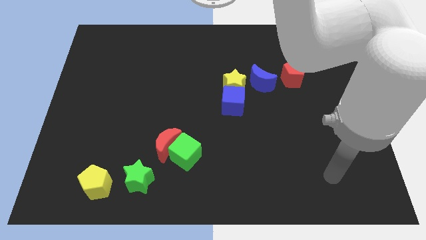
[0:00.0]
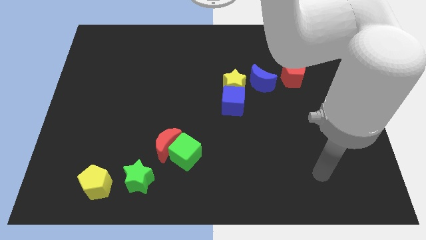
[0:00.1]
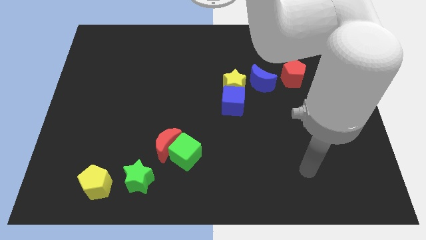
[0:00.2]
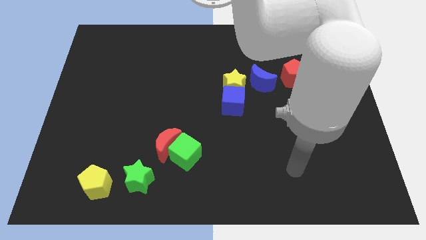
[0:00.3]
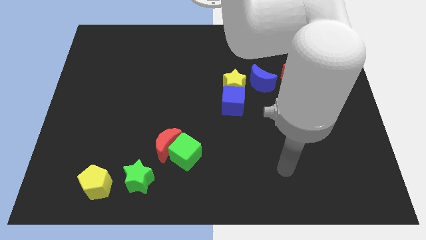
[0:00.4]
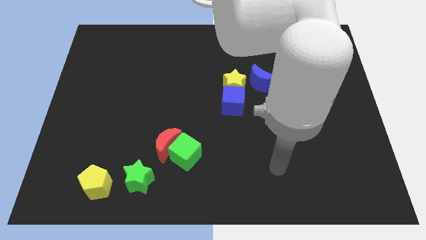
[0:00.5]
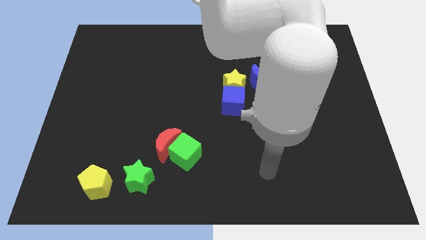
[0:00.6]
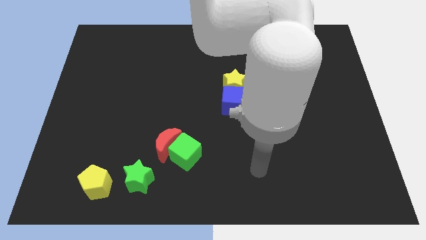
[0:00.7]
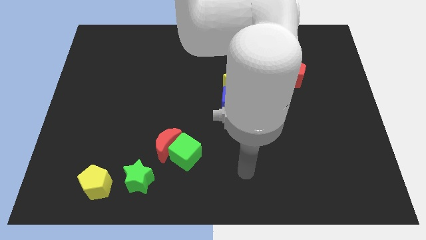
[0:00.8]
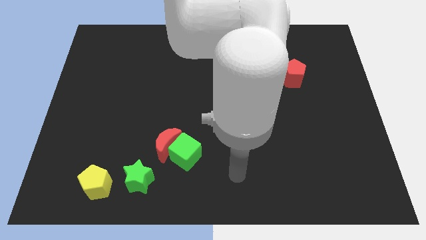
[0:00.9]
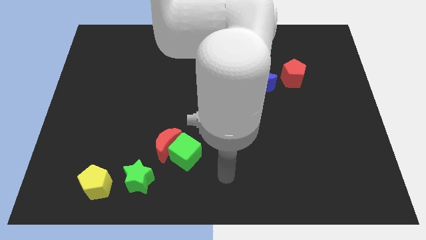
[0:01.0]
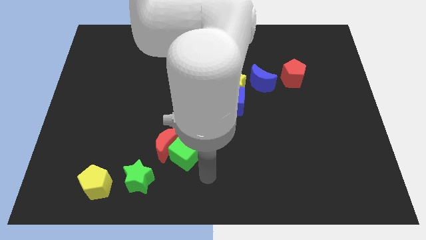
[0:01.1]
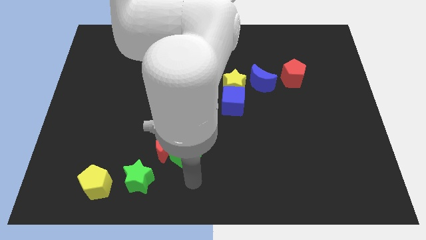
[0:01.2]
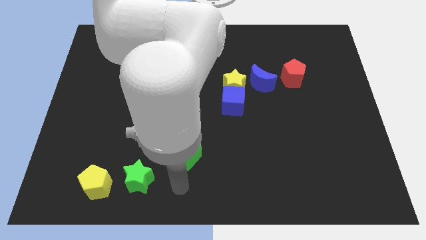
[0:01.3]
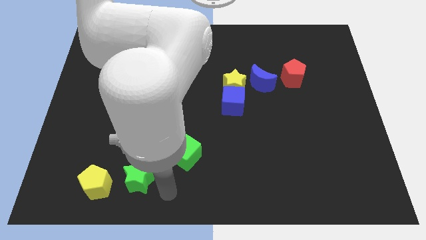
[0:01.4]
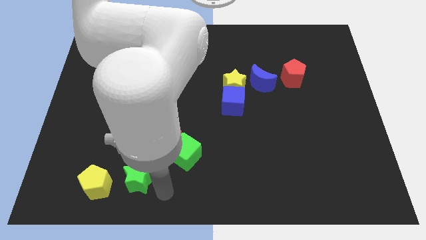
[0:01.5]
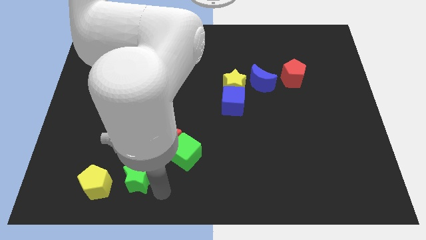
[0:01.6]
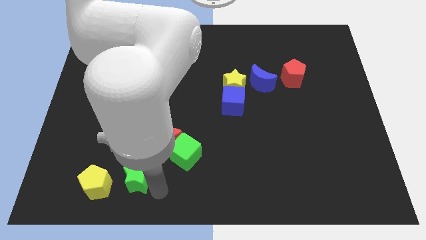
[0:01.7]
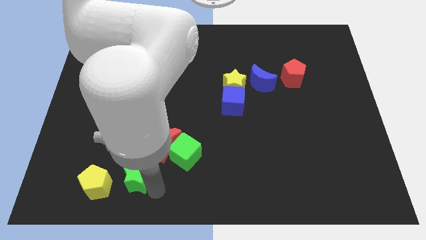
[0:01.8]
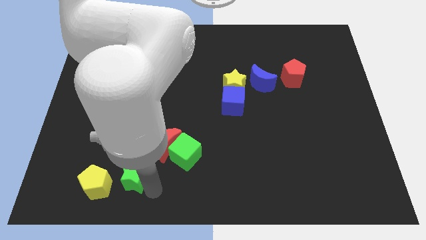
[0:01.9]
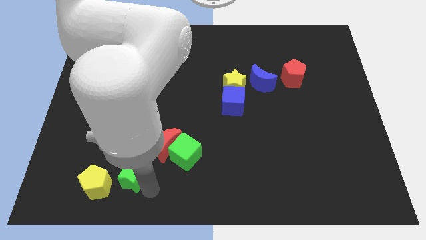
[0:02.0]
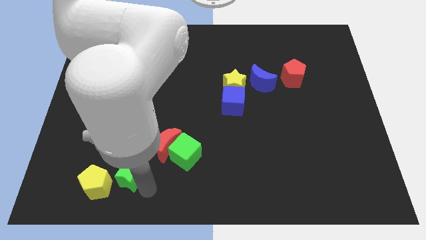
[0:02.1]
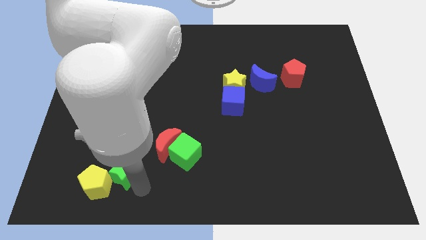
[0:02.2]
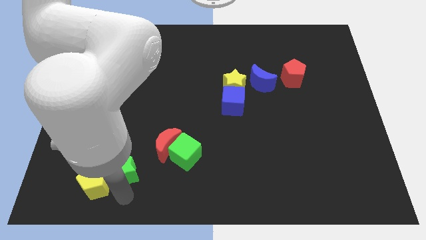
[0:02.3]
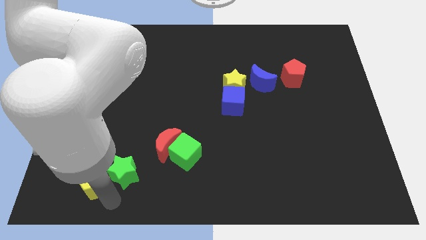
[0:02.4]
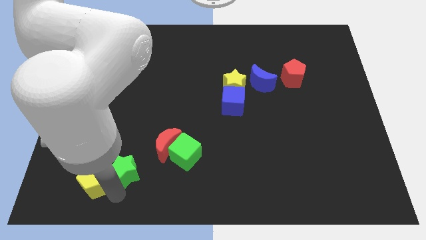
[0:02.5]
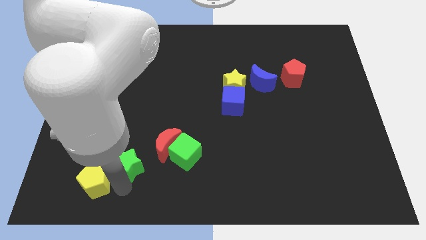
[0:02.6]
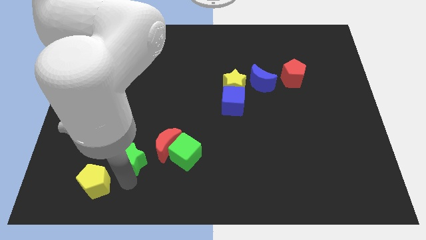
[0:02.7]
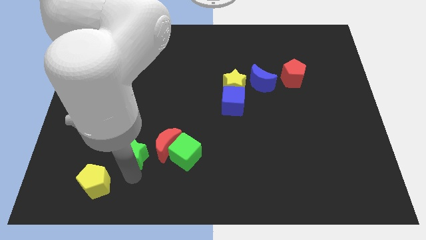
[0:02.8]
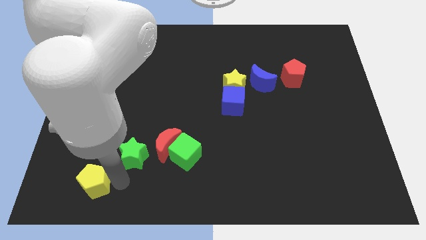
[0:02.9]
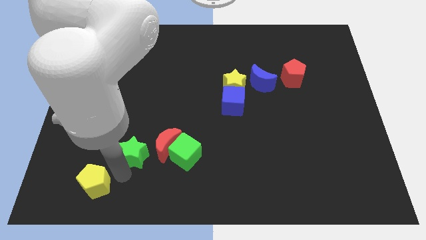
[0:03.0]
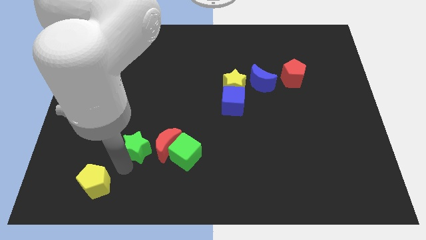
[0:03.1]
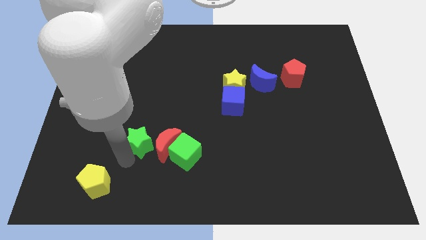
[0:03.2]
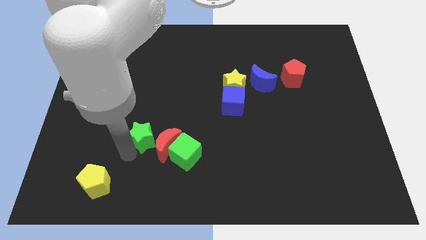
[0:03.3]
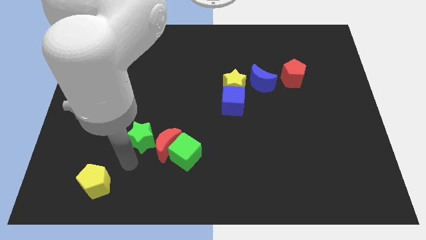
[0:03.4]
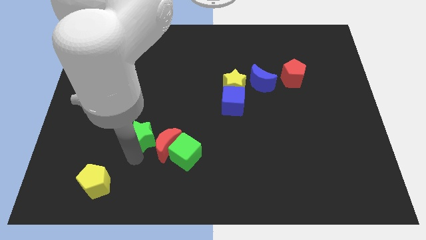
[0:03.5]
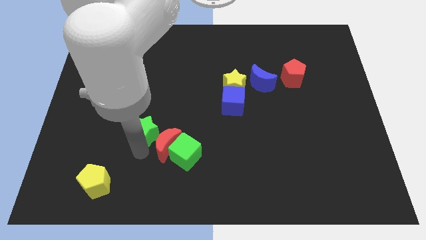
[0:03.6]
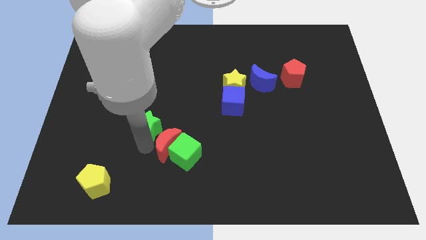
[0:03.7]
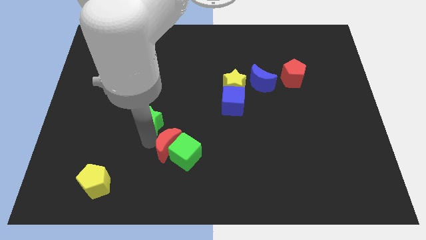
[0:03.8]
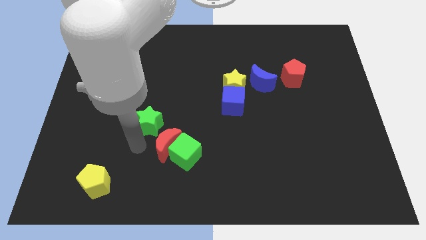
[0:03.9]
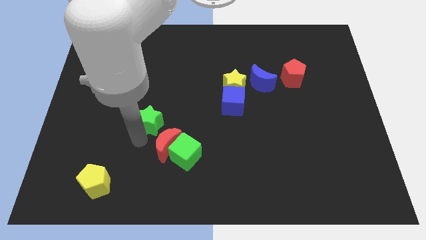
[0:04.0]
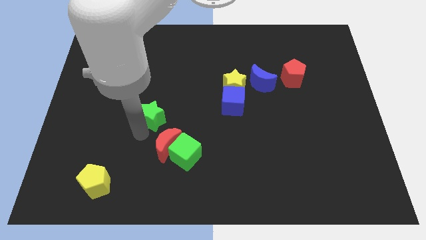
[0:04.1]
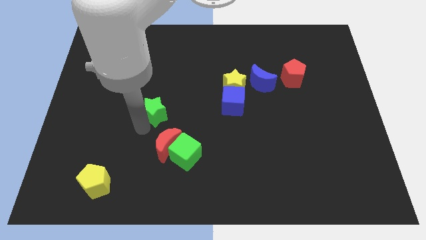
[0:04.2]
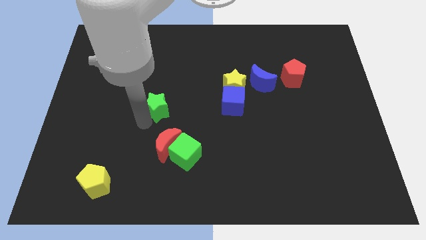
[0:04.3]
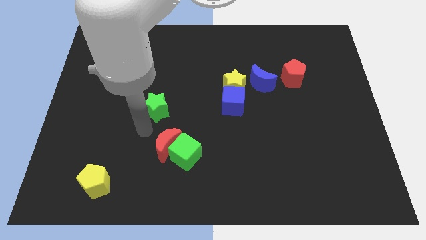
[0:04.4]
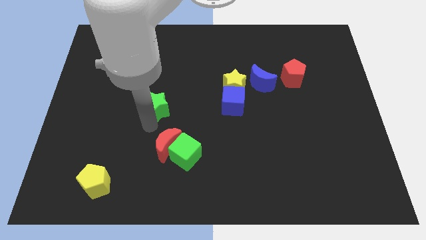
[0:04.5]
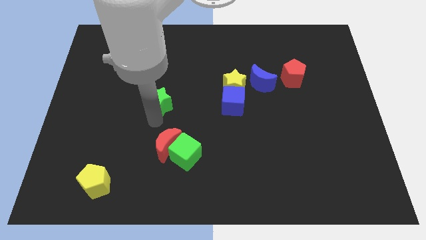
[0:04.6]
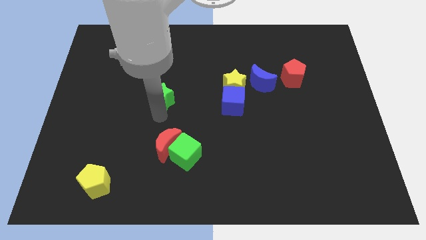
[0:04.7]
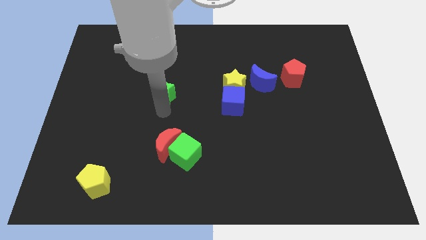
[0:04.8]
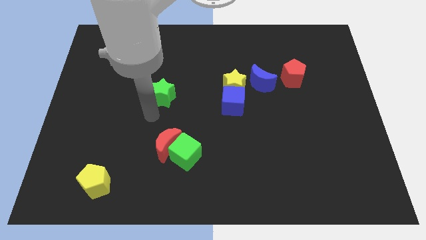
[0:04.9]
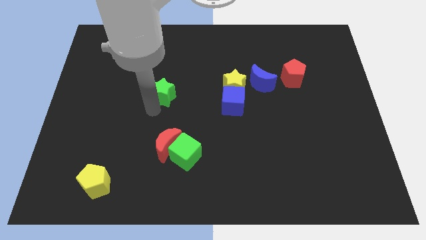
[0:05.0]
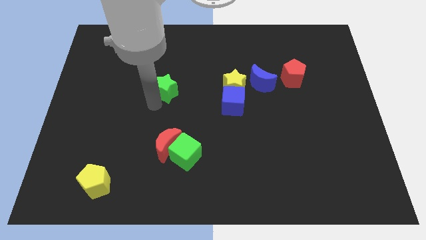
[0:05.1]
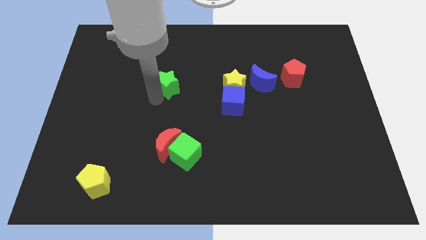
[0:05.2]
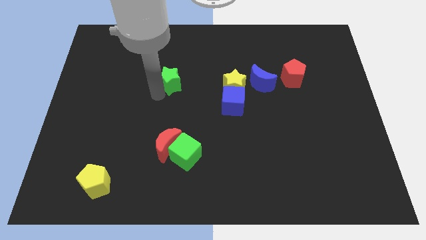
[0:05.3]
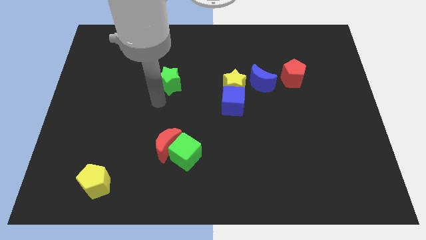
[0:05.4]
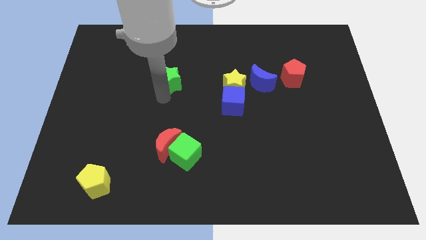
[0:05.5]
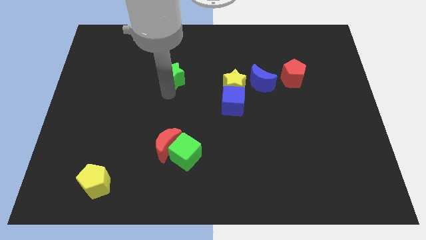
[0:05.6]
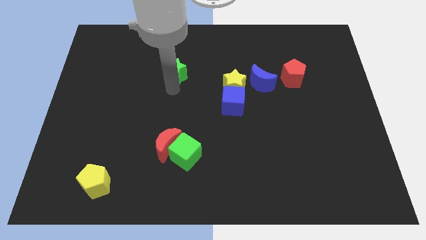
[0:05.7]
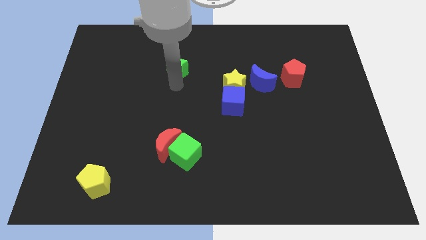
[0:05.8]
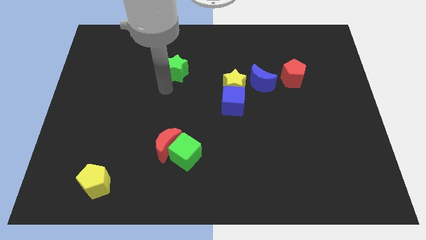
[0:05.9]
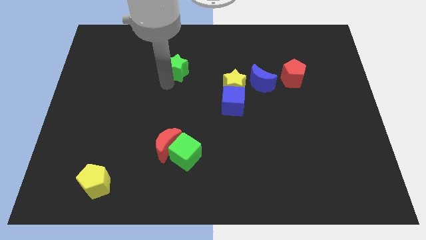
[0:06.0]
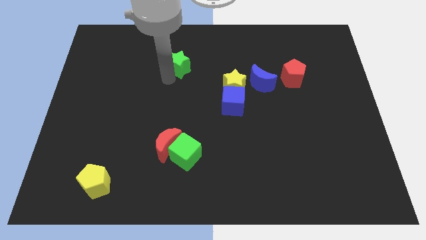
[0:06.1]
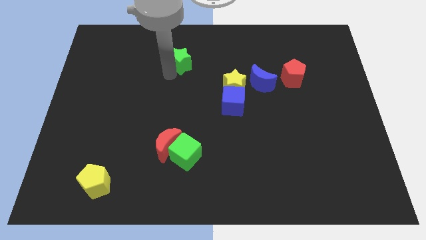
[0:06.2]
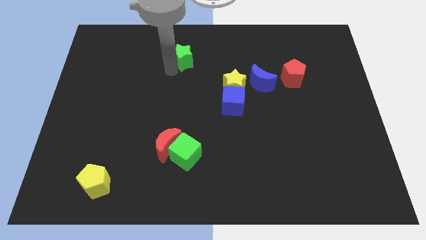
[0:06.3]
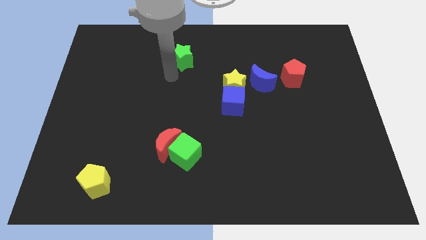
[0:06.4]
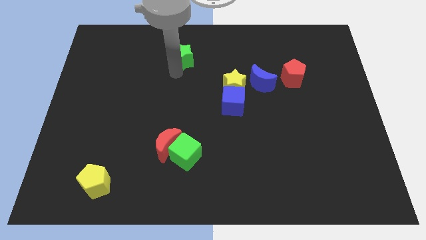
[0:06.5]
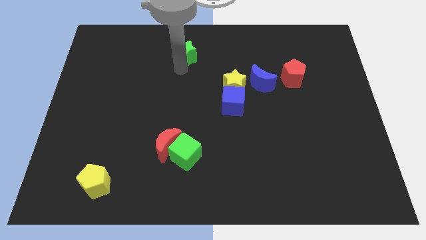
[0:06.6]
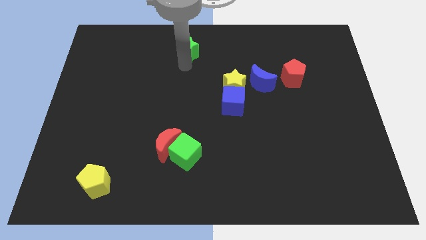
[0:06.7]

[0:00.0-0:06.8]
slide the green star to the top side
